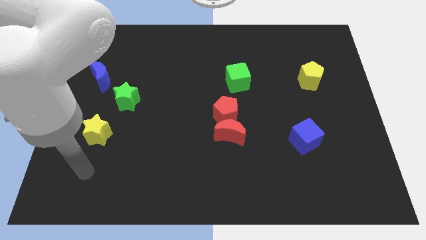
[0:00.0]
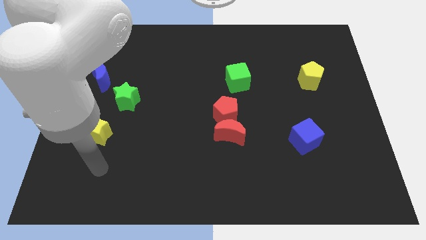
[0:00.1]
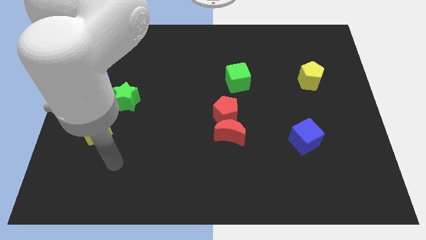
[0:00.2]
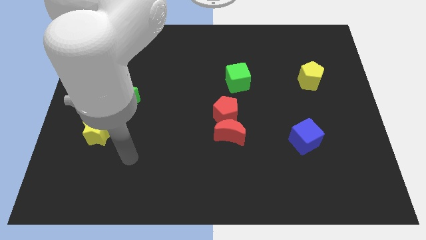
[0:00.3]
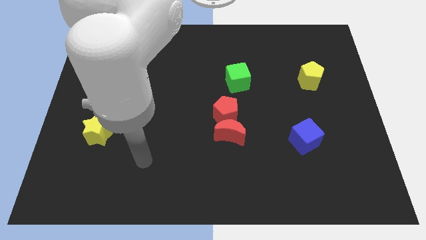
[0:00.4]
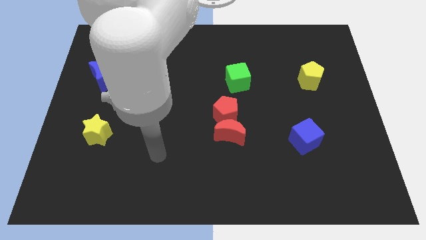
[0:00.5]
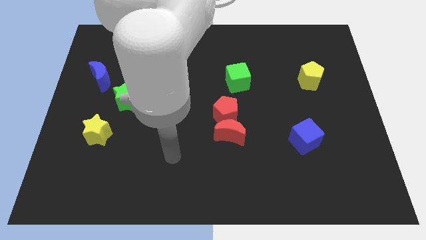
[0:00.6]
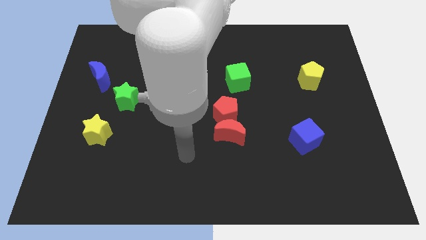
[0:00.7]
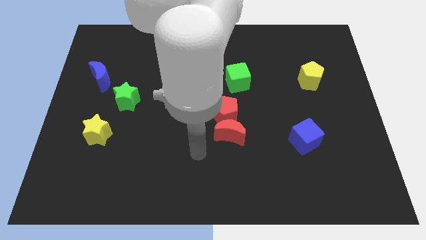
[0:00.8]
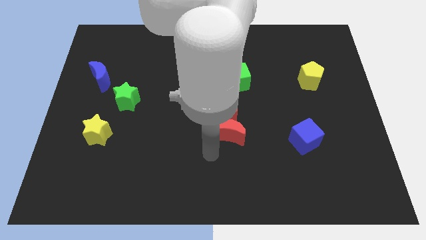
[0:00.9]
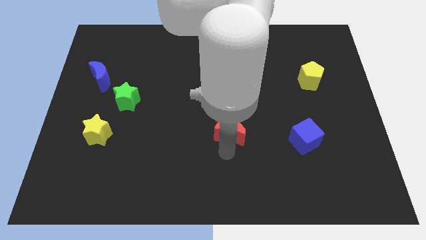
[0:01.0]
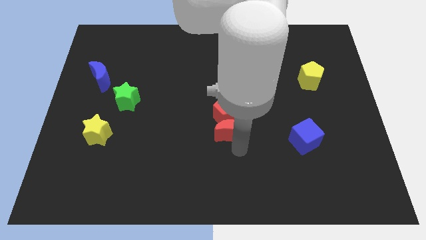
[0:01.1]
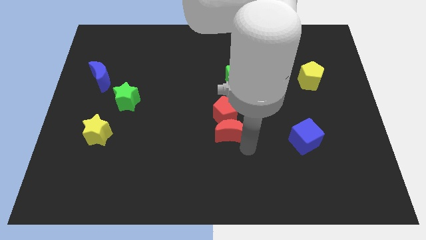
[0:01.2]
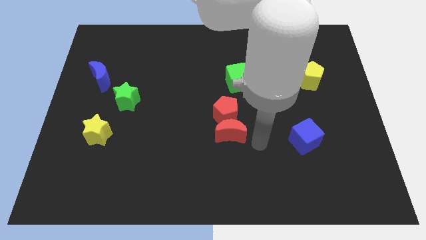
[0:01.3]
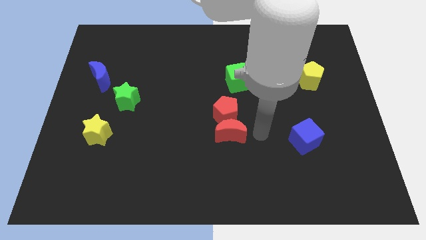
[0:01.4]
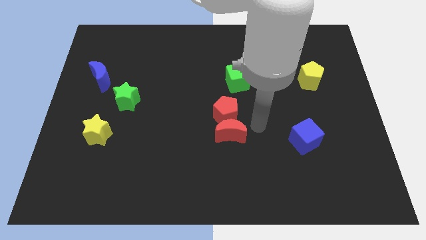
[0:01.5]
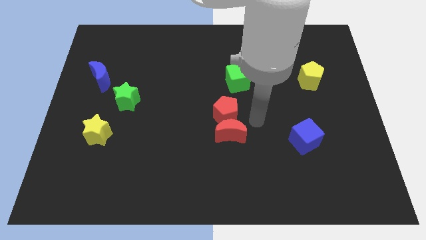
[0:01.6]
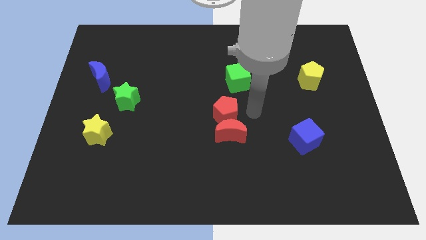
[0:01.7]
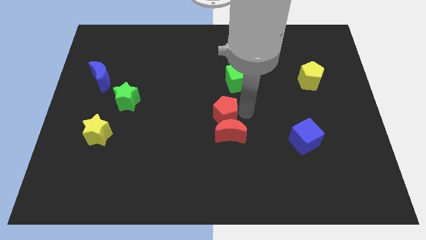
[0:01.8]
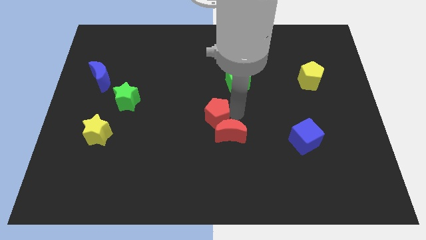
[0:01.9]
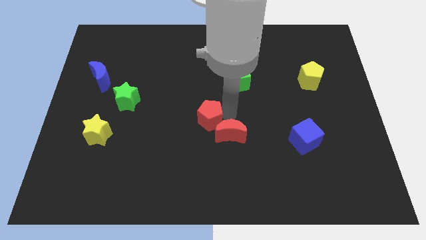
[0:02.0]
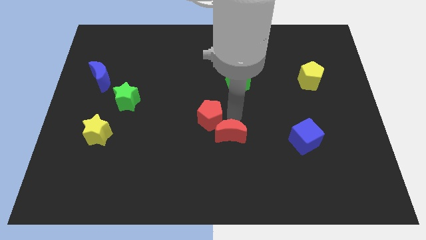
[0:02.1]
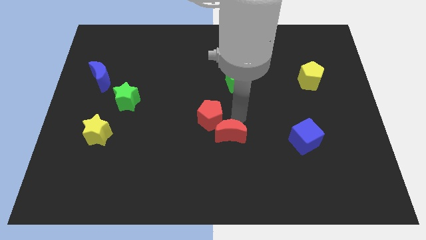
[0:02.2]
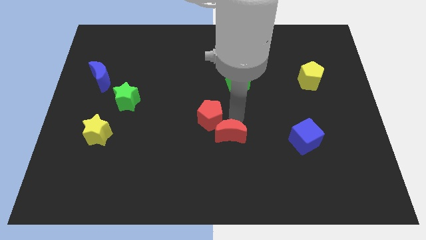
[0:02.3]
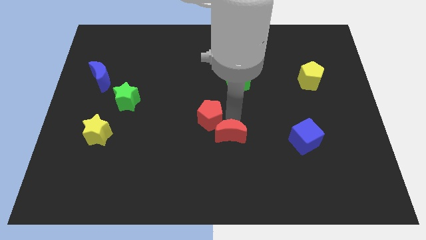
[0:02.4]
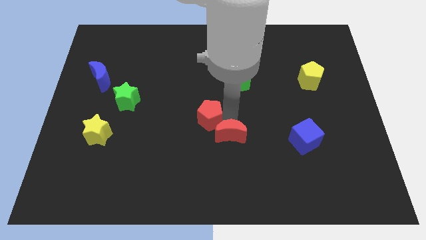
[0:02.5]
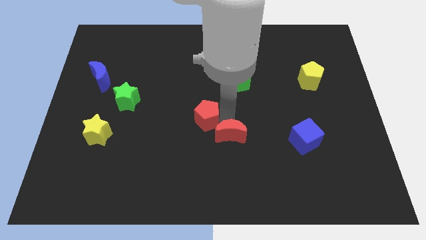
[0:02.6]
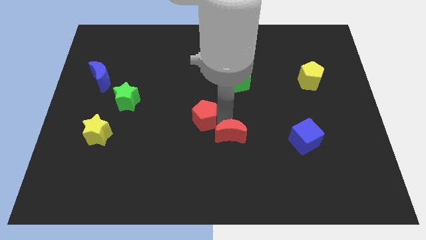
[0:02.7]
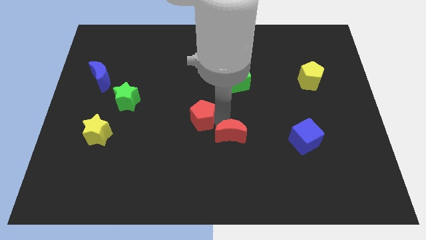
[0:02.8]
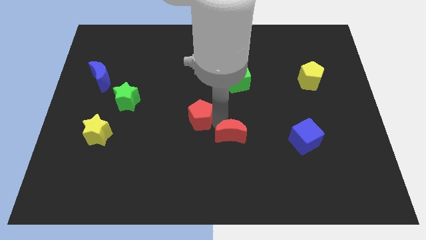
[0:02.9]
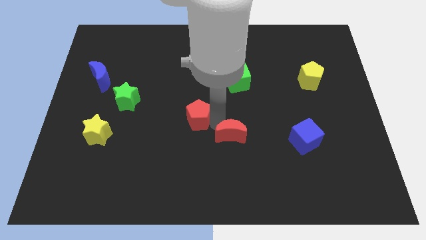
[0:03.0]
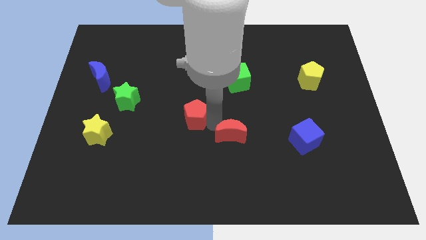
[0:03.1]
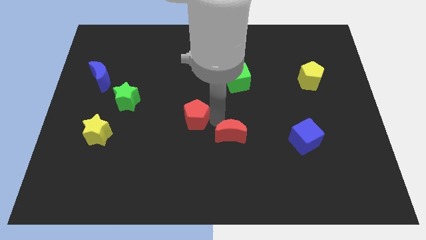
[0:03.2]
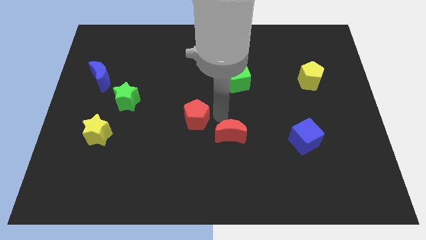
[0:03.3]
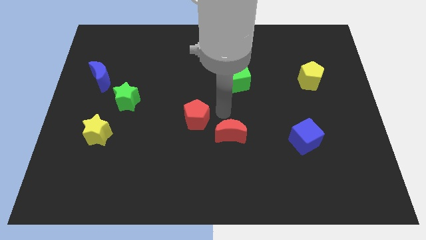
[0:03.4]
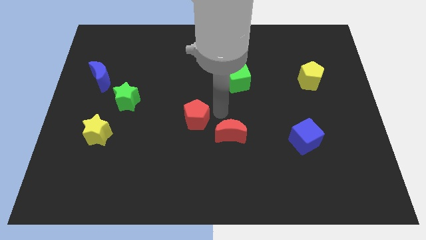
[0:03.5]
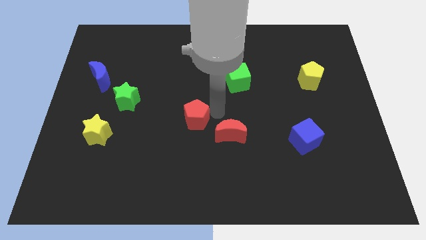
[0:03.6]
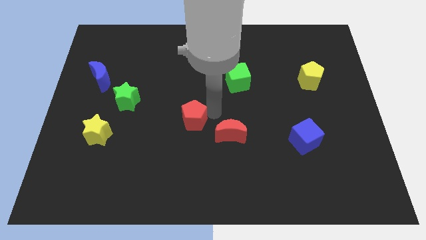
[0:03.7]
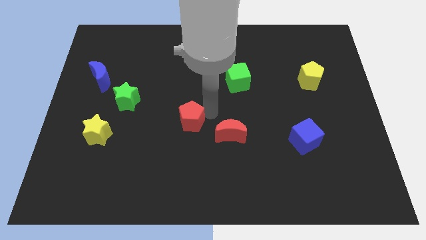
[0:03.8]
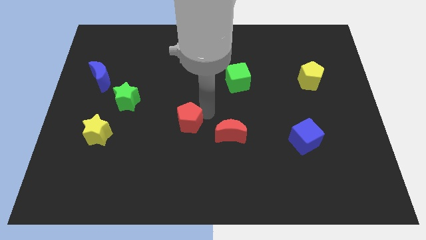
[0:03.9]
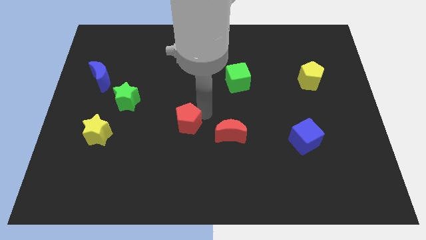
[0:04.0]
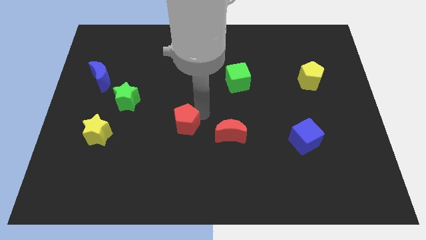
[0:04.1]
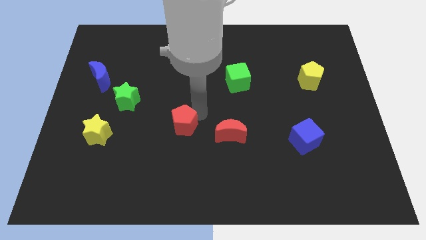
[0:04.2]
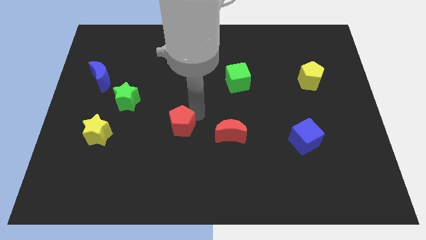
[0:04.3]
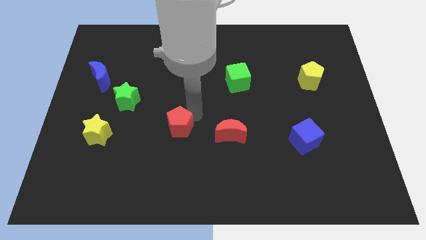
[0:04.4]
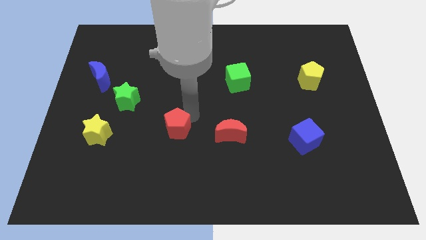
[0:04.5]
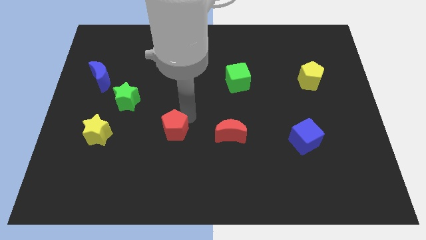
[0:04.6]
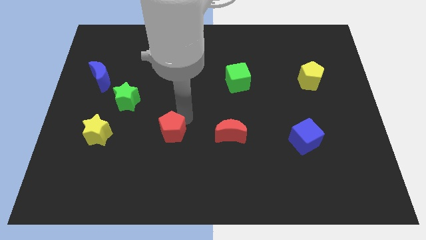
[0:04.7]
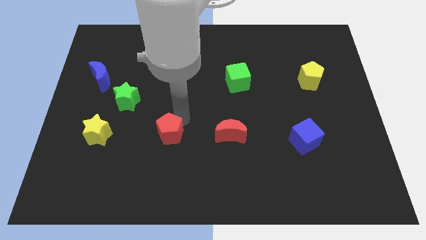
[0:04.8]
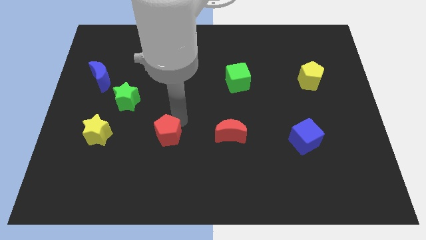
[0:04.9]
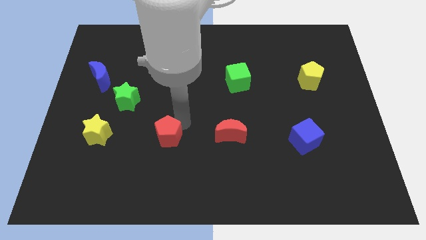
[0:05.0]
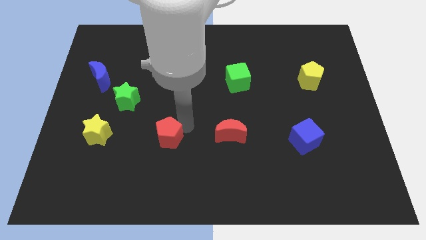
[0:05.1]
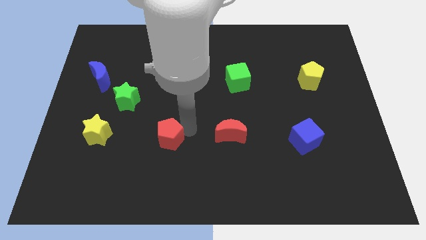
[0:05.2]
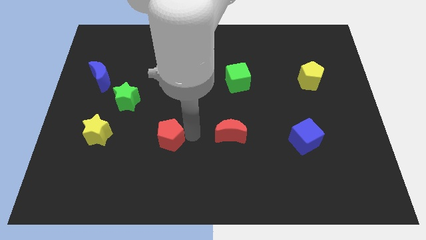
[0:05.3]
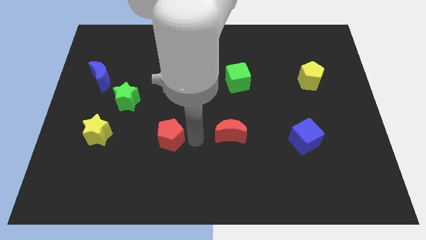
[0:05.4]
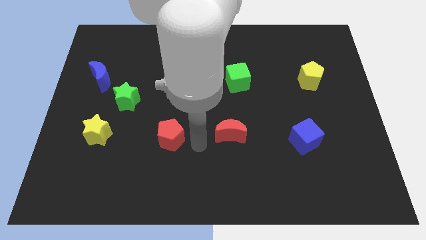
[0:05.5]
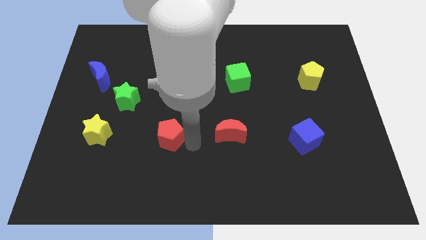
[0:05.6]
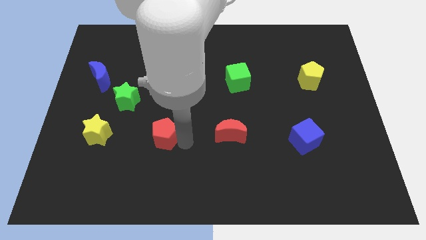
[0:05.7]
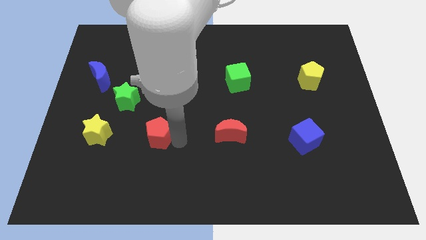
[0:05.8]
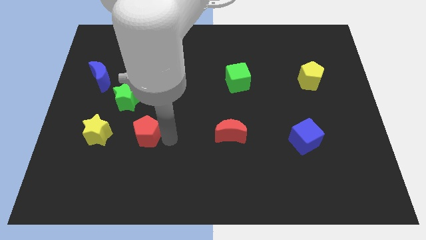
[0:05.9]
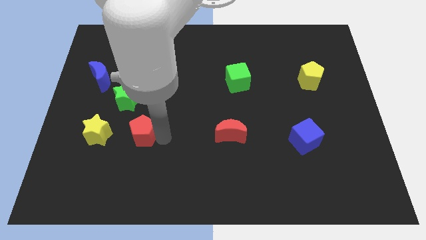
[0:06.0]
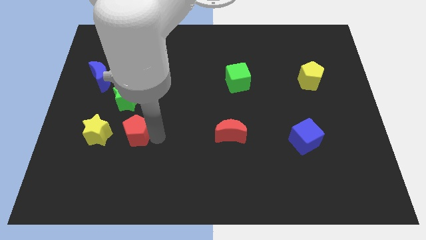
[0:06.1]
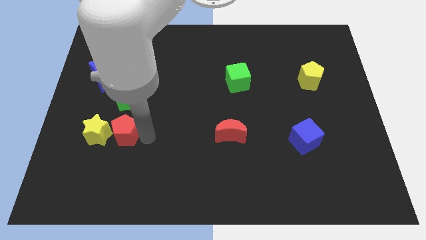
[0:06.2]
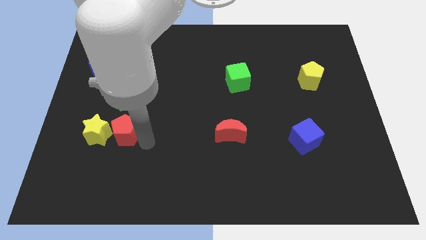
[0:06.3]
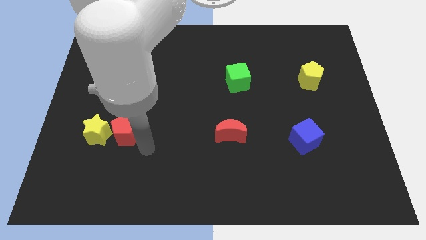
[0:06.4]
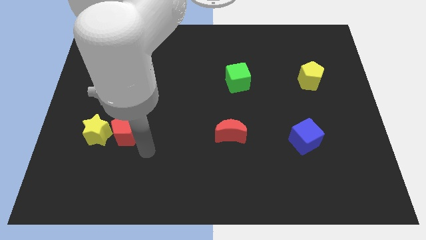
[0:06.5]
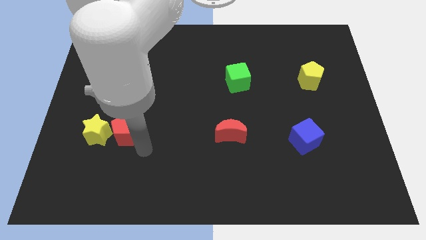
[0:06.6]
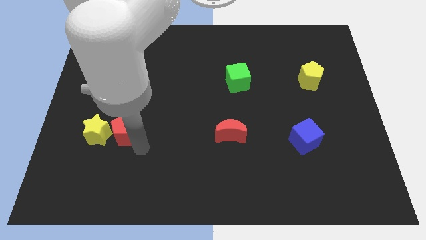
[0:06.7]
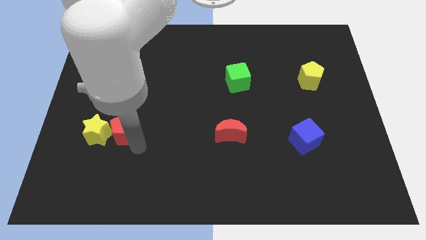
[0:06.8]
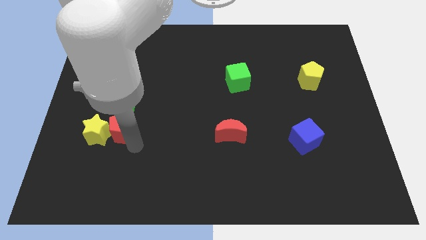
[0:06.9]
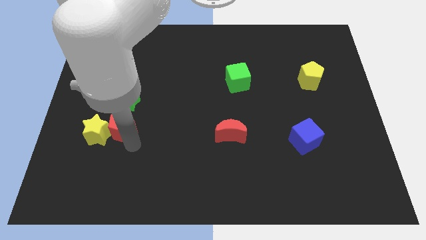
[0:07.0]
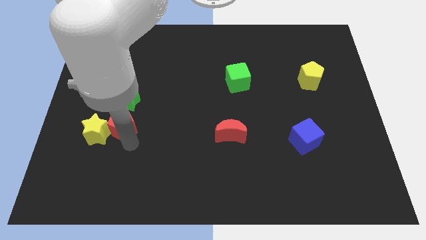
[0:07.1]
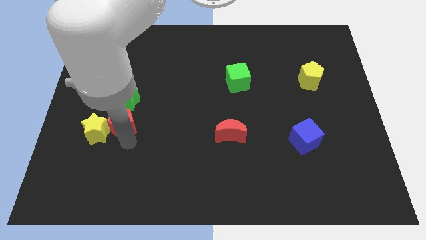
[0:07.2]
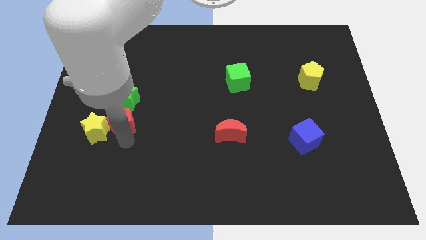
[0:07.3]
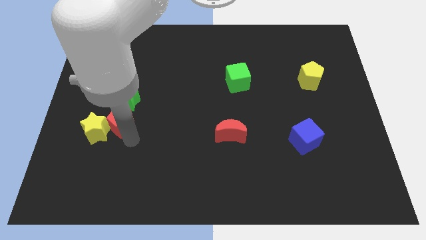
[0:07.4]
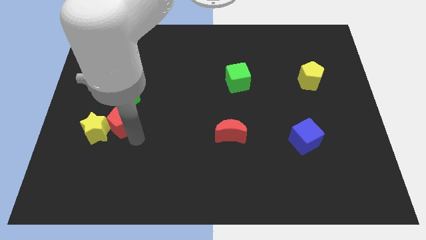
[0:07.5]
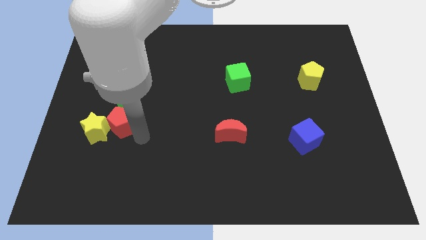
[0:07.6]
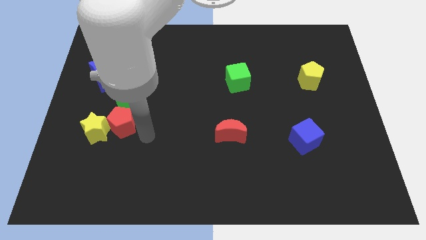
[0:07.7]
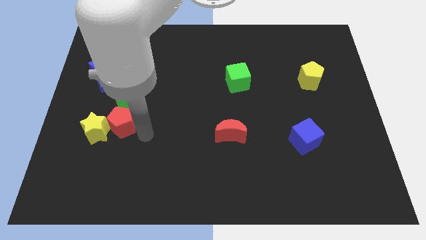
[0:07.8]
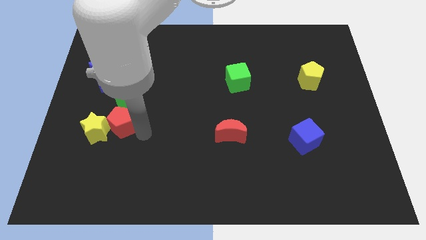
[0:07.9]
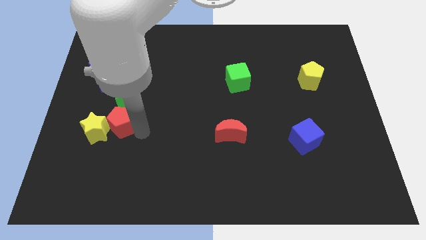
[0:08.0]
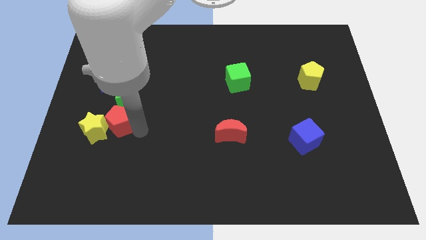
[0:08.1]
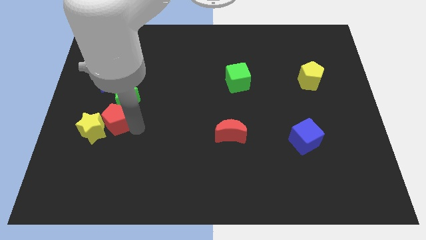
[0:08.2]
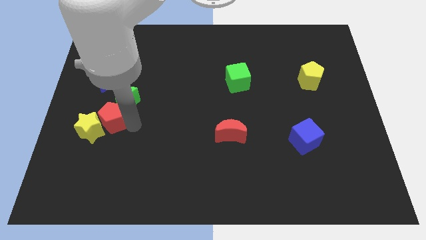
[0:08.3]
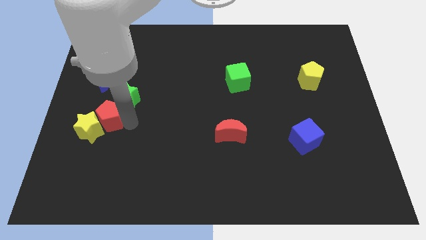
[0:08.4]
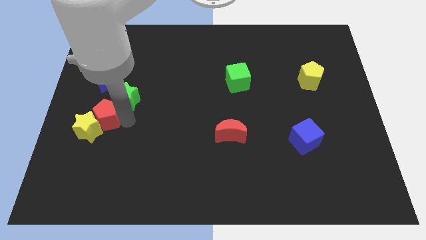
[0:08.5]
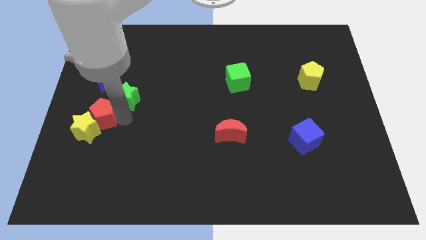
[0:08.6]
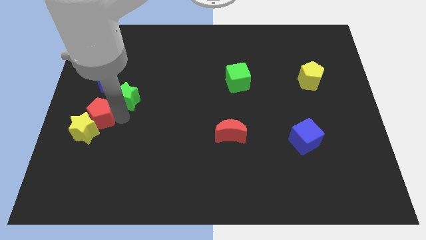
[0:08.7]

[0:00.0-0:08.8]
slide the red pentagon to the left side of the board
